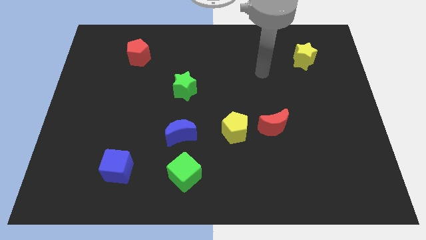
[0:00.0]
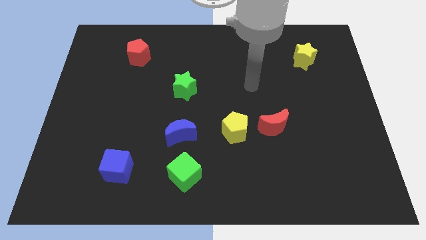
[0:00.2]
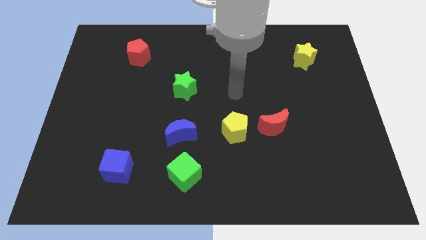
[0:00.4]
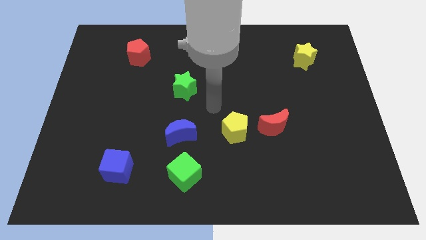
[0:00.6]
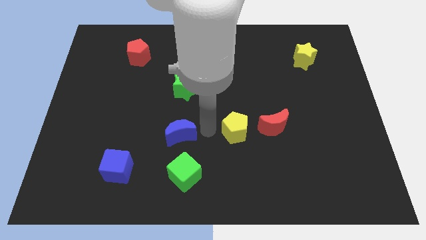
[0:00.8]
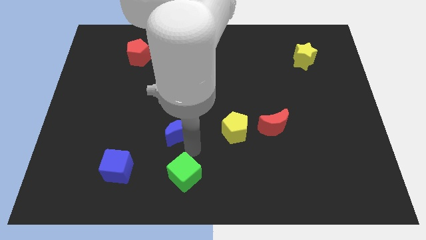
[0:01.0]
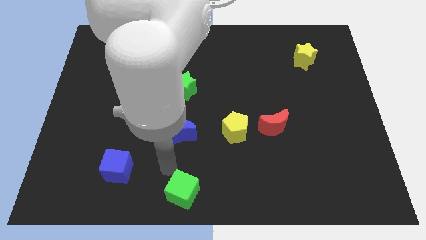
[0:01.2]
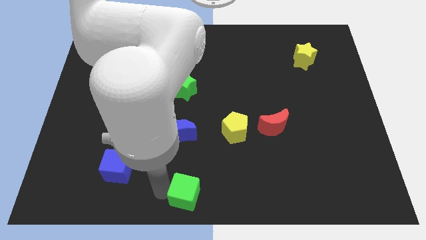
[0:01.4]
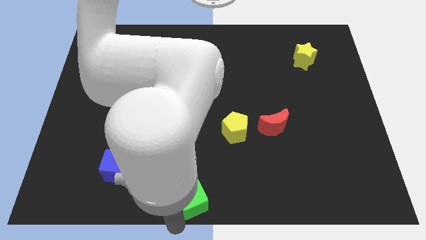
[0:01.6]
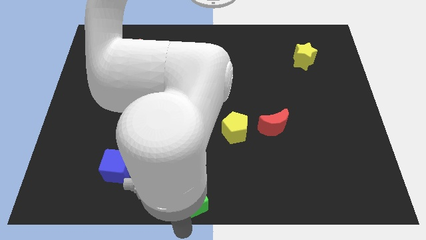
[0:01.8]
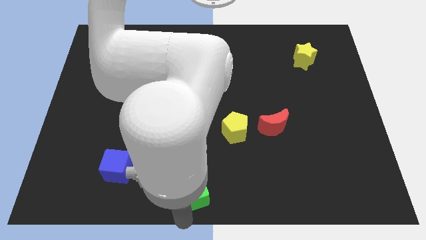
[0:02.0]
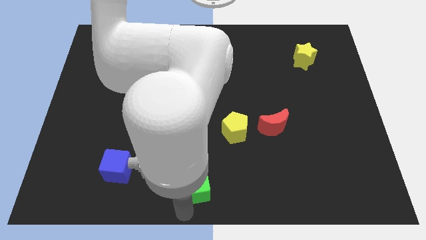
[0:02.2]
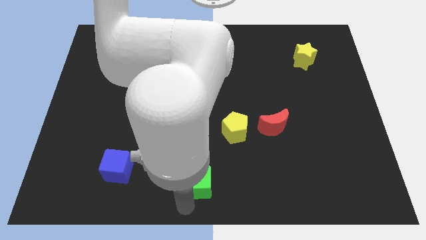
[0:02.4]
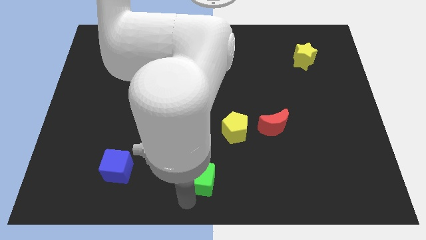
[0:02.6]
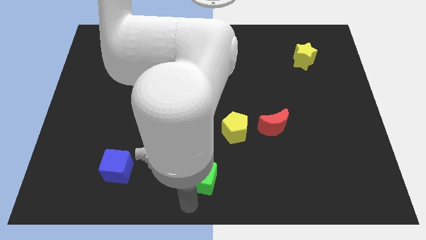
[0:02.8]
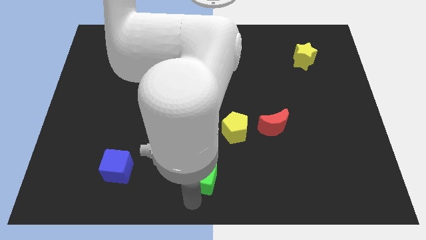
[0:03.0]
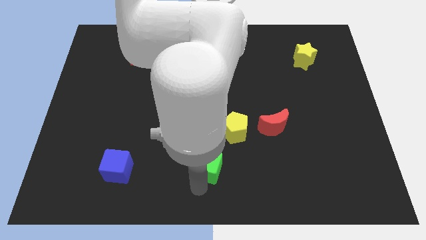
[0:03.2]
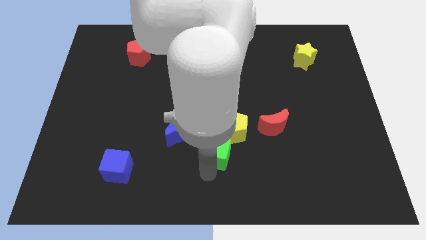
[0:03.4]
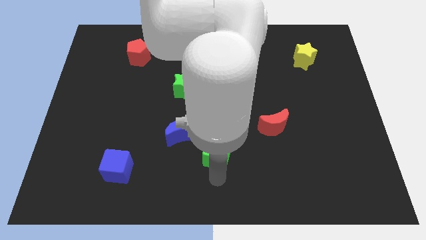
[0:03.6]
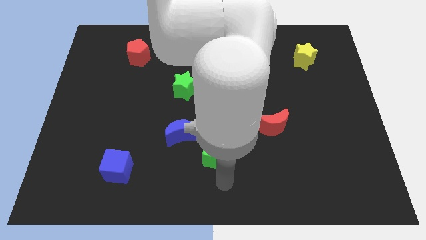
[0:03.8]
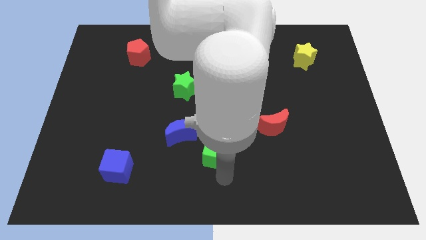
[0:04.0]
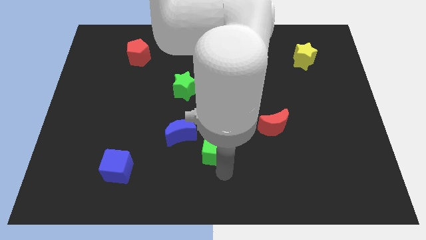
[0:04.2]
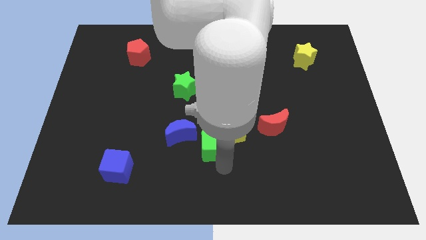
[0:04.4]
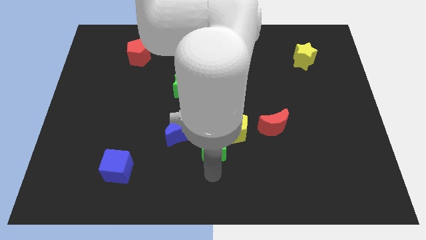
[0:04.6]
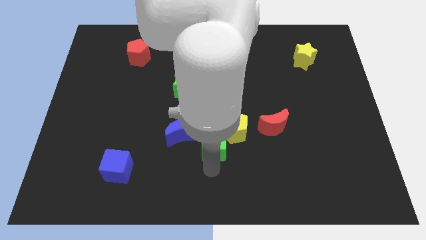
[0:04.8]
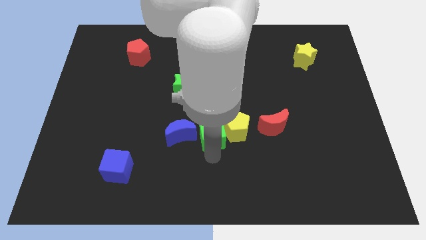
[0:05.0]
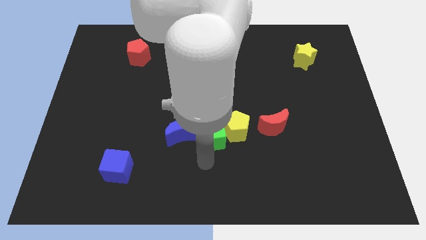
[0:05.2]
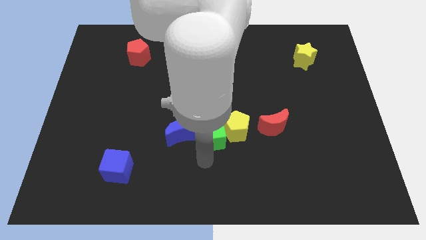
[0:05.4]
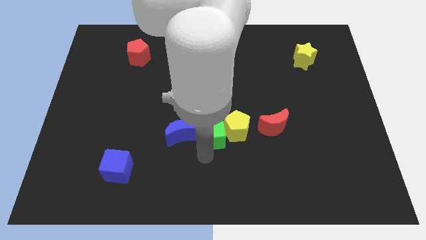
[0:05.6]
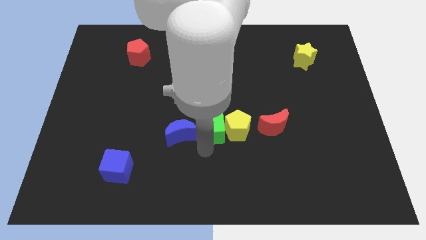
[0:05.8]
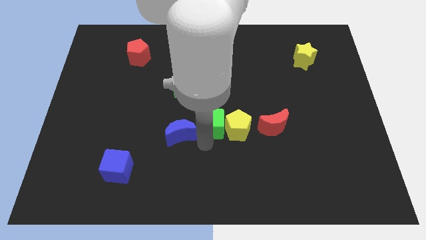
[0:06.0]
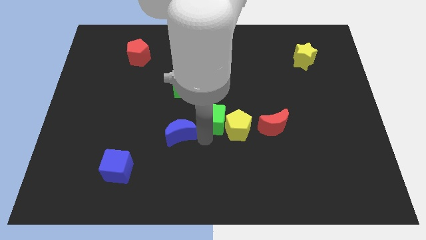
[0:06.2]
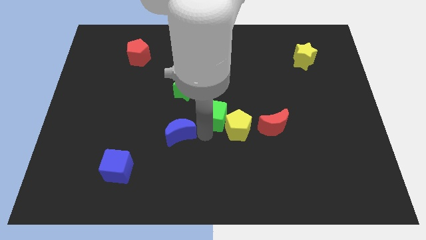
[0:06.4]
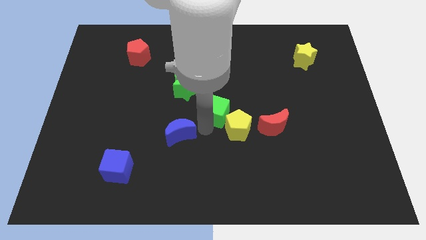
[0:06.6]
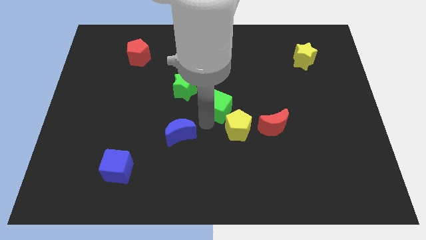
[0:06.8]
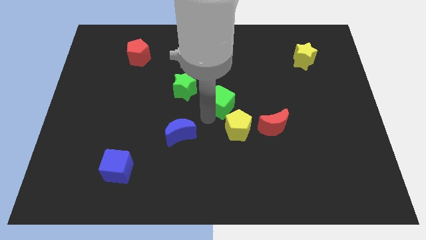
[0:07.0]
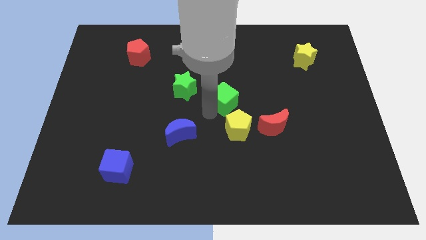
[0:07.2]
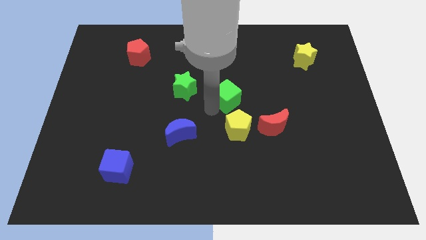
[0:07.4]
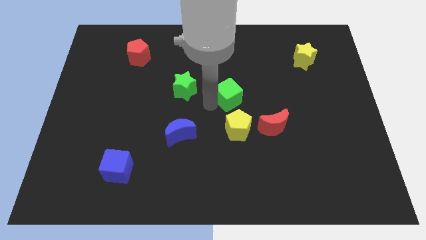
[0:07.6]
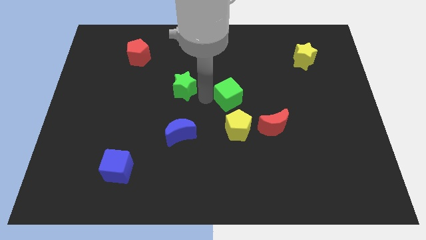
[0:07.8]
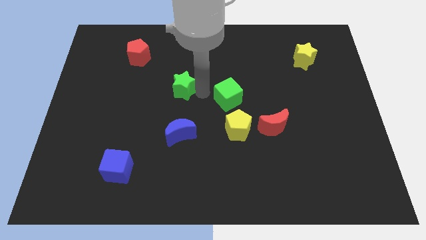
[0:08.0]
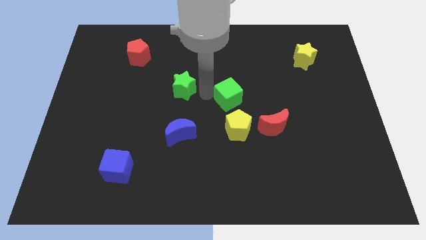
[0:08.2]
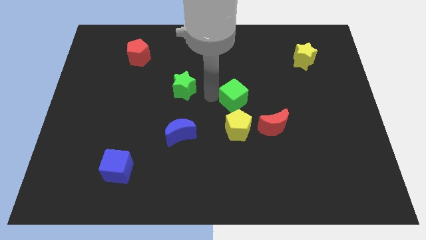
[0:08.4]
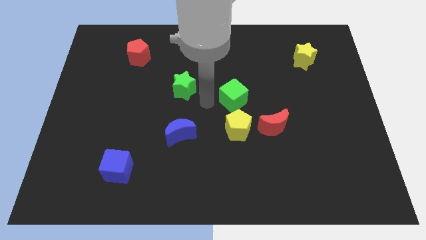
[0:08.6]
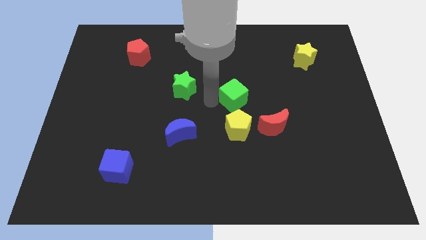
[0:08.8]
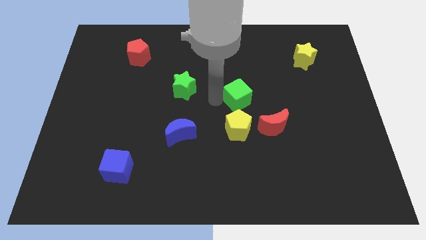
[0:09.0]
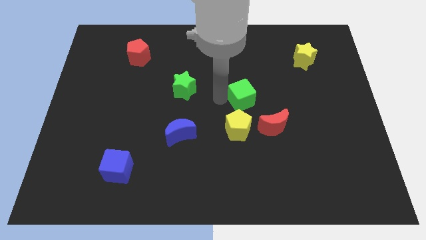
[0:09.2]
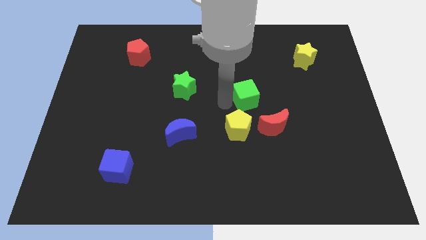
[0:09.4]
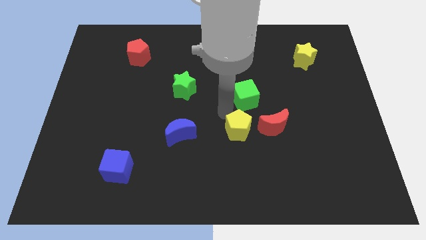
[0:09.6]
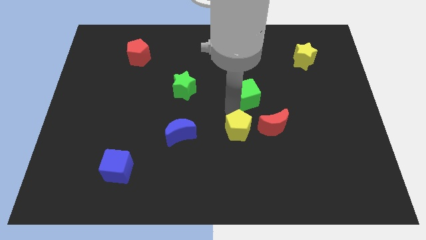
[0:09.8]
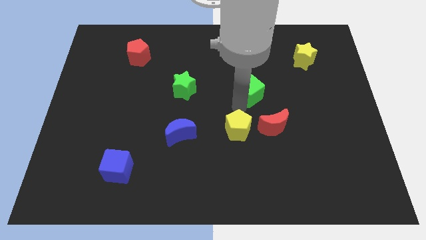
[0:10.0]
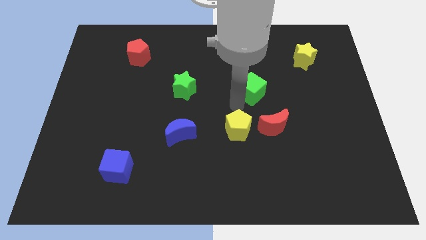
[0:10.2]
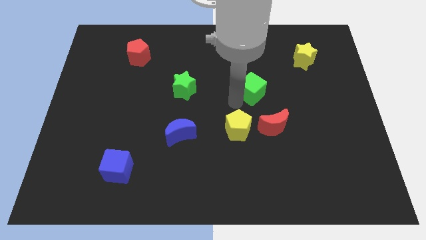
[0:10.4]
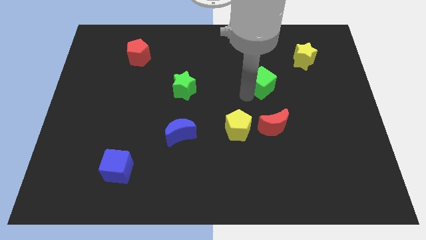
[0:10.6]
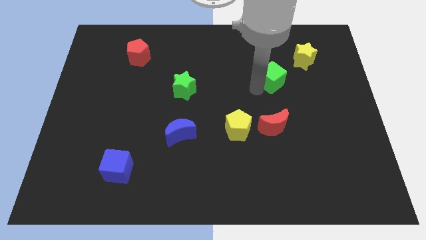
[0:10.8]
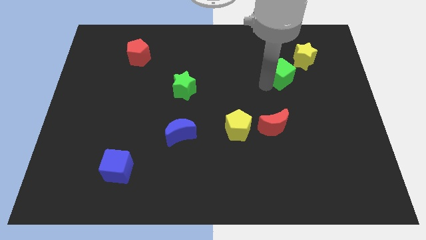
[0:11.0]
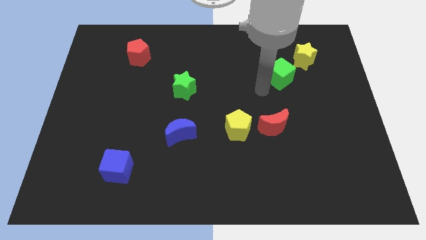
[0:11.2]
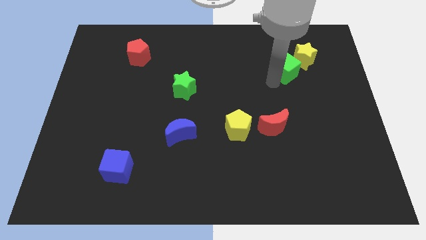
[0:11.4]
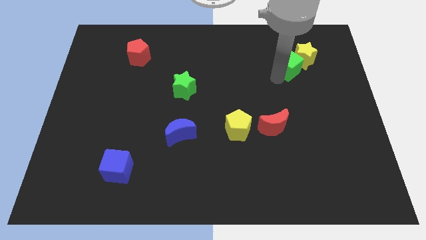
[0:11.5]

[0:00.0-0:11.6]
put the green cube next to the yellow star

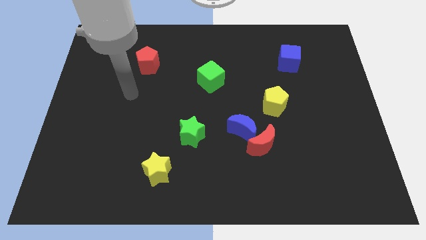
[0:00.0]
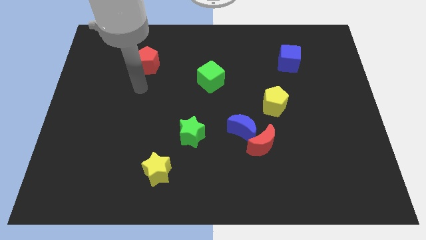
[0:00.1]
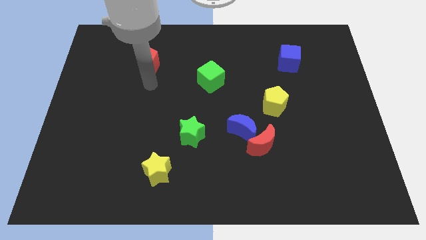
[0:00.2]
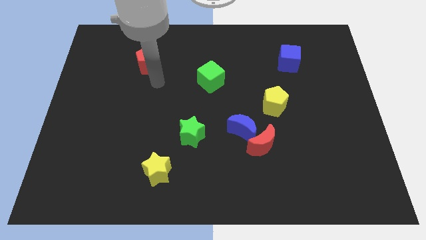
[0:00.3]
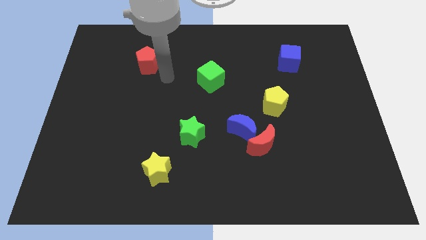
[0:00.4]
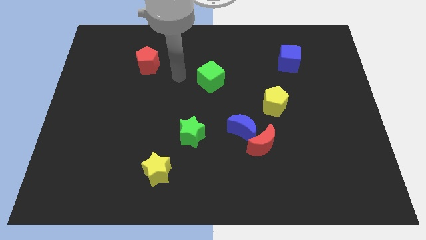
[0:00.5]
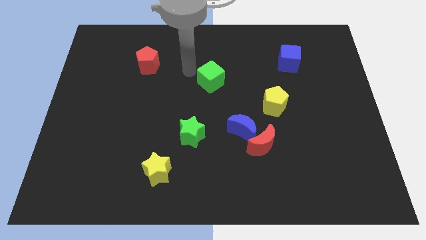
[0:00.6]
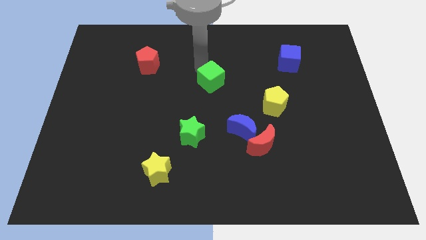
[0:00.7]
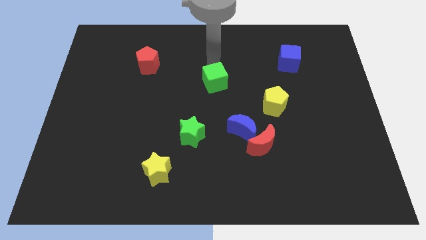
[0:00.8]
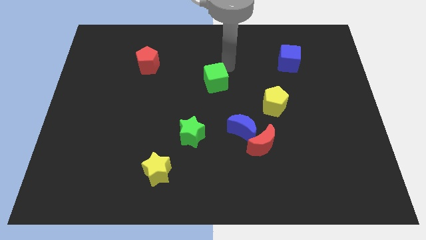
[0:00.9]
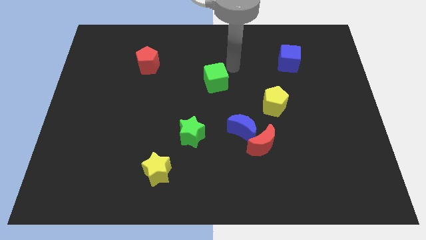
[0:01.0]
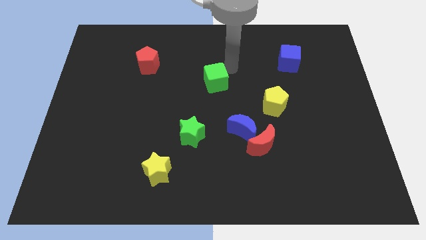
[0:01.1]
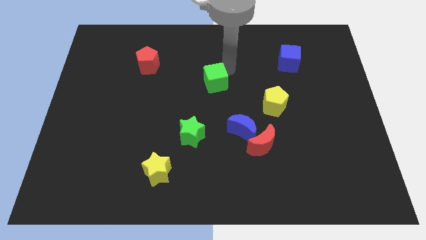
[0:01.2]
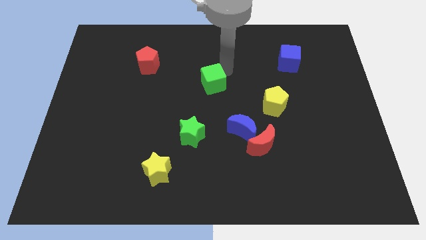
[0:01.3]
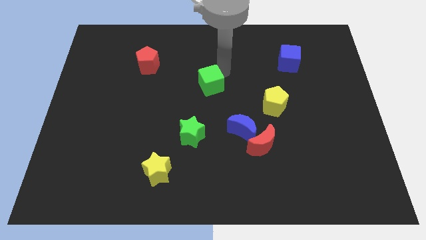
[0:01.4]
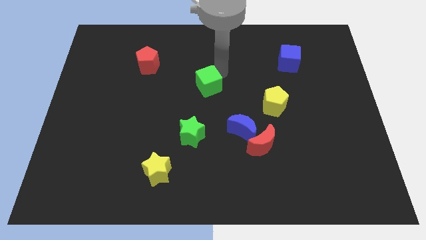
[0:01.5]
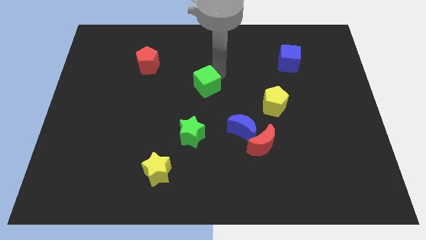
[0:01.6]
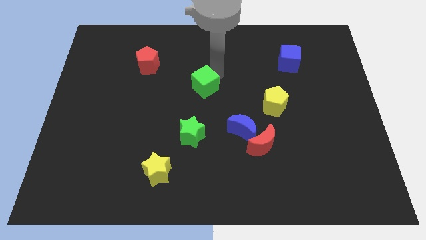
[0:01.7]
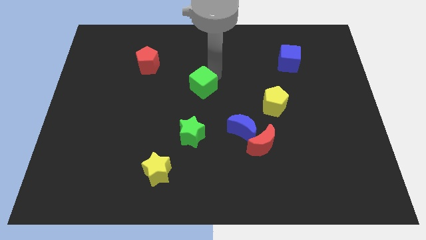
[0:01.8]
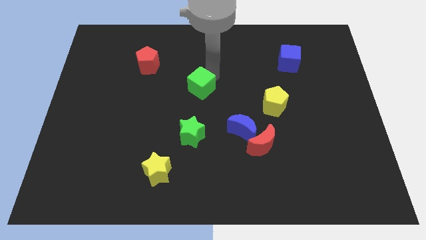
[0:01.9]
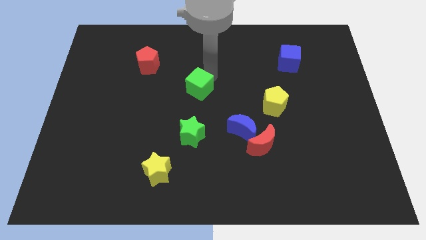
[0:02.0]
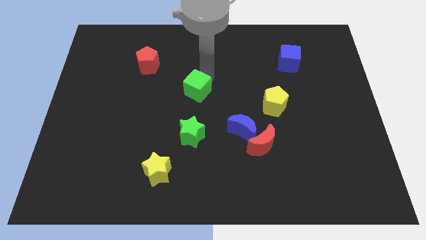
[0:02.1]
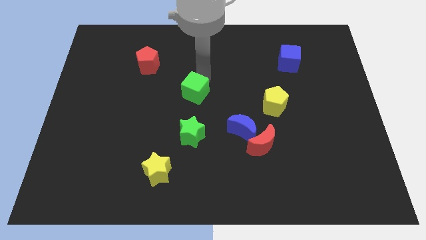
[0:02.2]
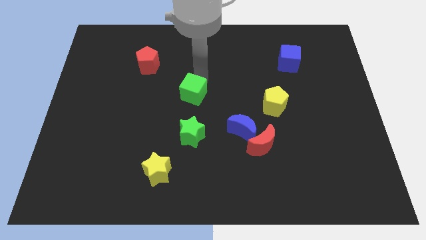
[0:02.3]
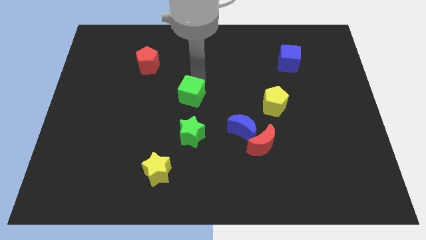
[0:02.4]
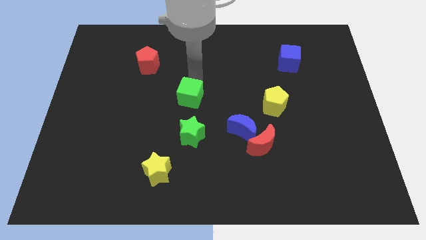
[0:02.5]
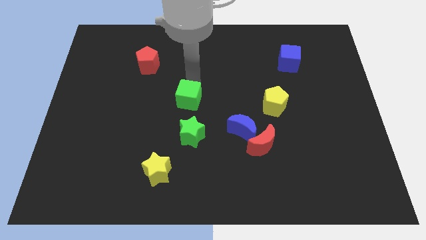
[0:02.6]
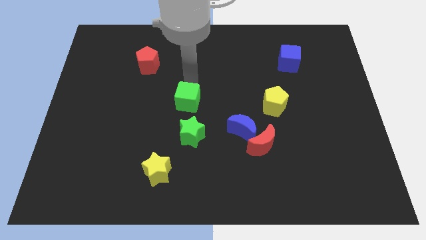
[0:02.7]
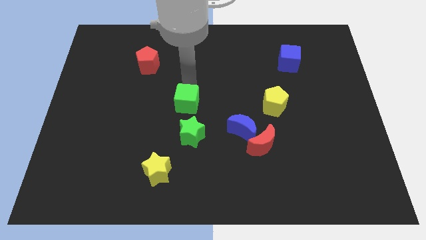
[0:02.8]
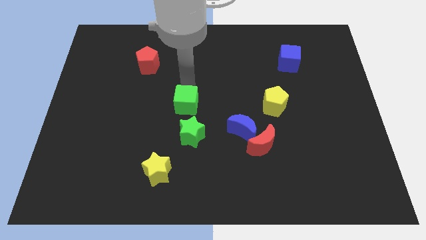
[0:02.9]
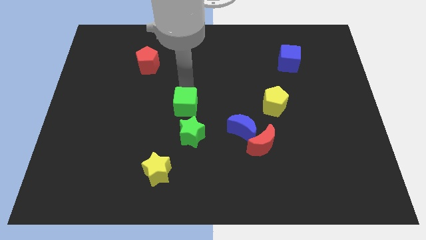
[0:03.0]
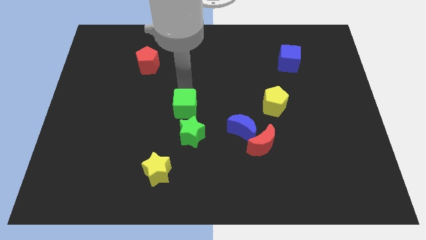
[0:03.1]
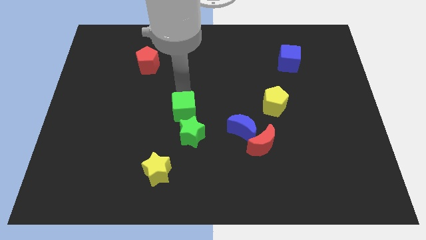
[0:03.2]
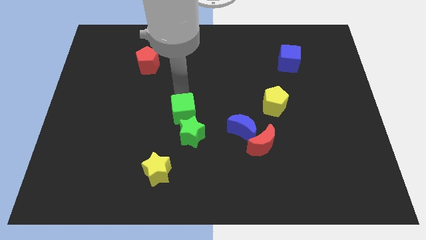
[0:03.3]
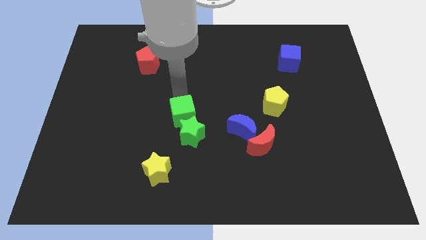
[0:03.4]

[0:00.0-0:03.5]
put the green cube next to the green star
